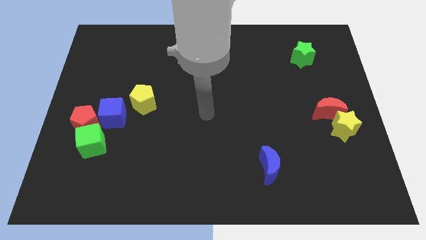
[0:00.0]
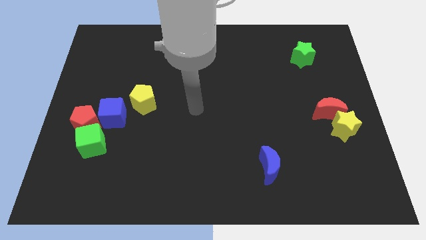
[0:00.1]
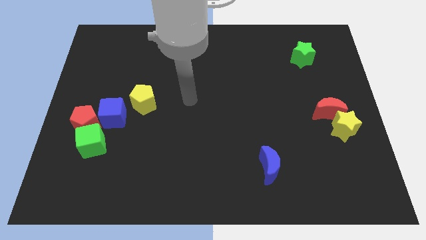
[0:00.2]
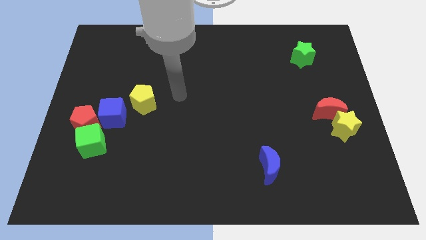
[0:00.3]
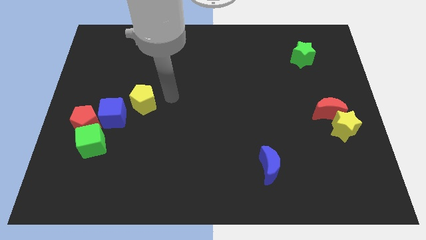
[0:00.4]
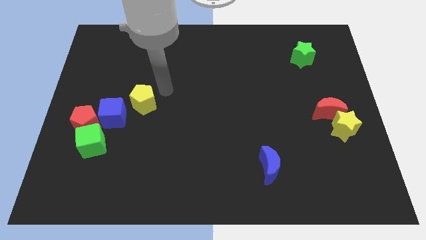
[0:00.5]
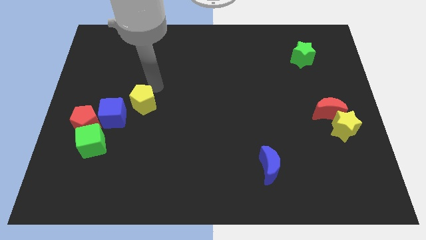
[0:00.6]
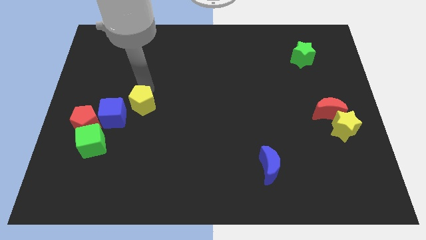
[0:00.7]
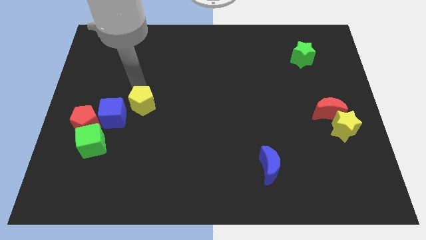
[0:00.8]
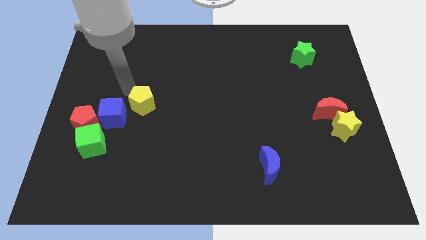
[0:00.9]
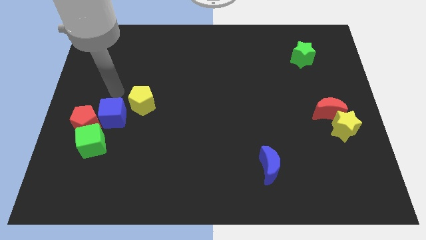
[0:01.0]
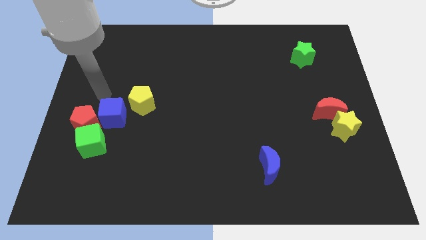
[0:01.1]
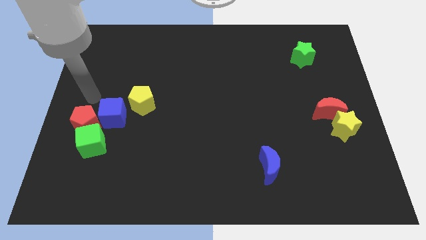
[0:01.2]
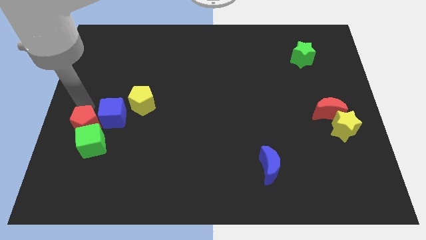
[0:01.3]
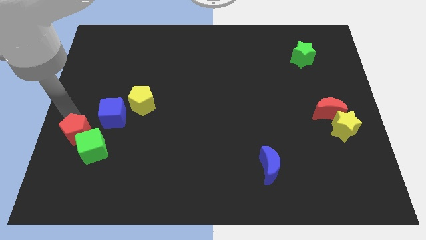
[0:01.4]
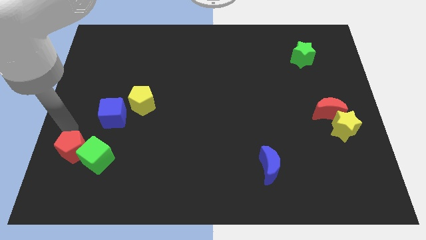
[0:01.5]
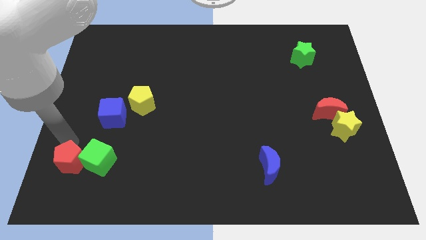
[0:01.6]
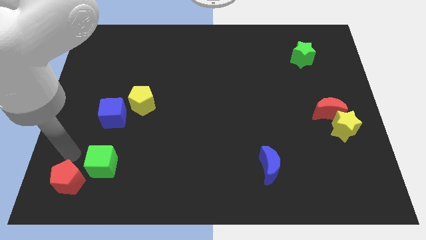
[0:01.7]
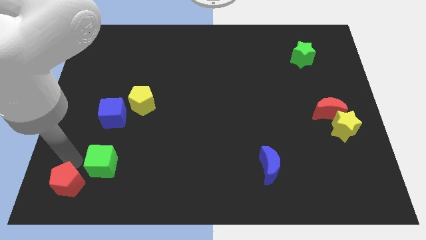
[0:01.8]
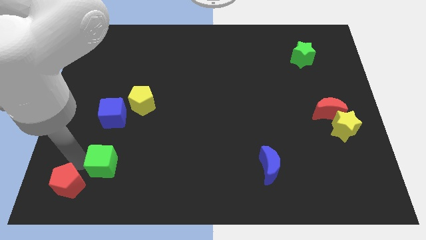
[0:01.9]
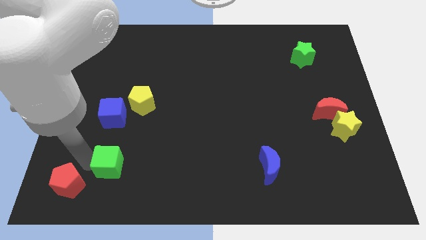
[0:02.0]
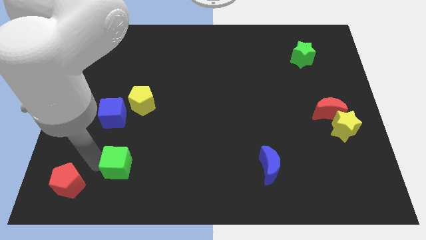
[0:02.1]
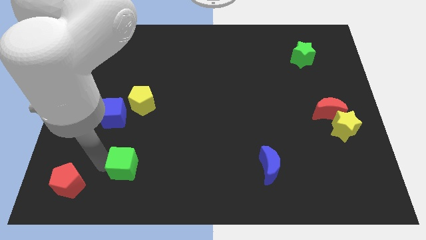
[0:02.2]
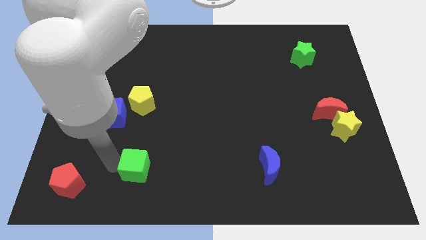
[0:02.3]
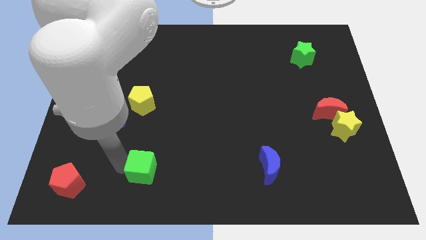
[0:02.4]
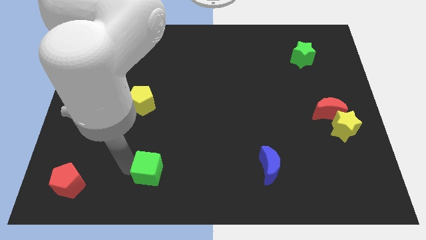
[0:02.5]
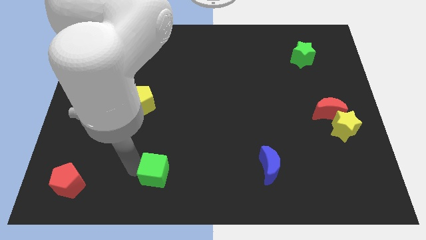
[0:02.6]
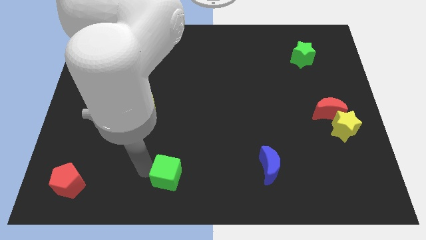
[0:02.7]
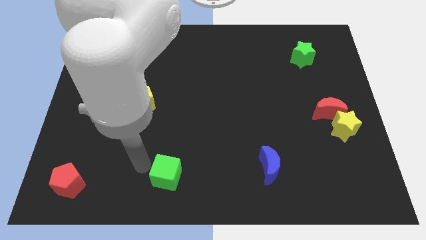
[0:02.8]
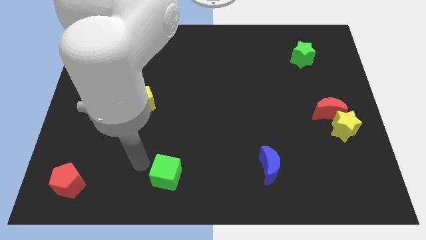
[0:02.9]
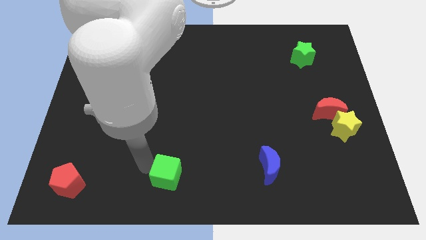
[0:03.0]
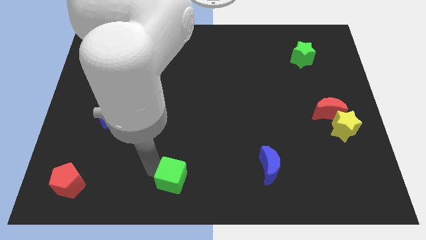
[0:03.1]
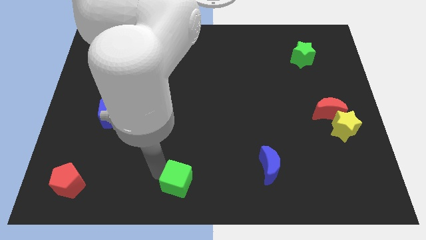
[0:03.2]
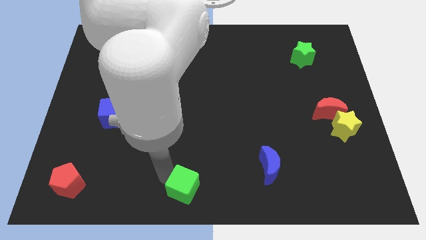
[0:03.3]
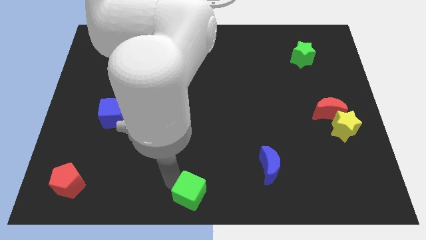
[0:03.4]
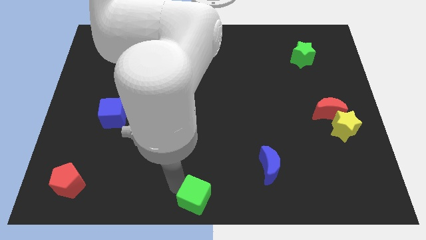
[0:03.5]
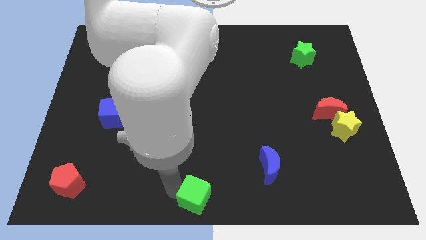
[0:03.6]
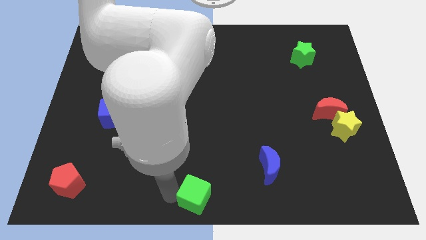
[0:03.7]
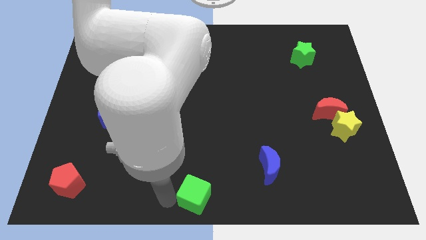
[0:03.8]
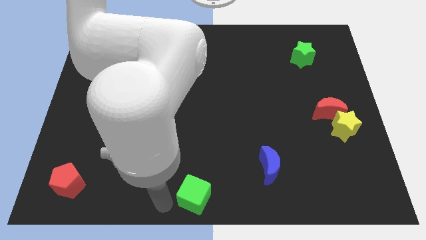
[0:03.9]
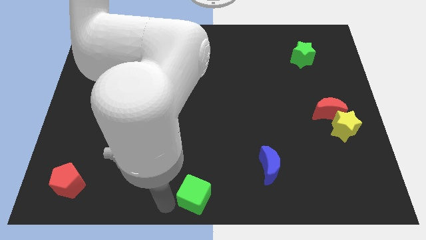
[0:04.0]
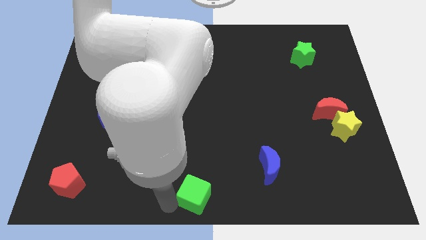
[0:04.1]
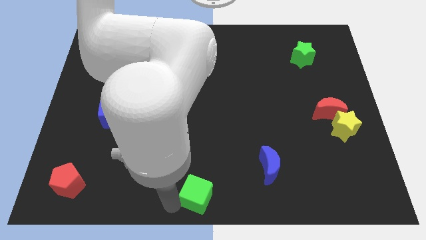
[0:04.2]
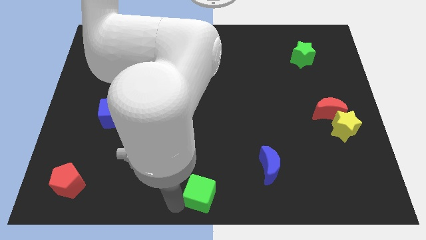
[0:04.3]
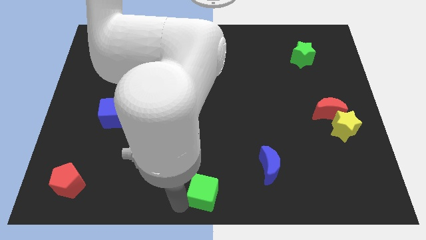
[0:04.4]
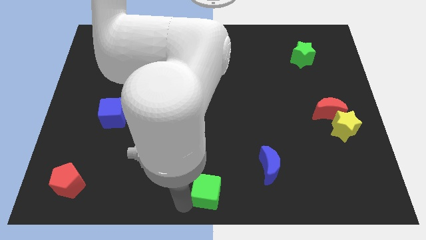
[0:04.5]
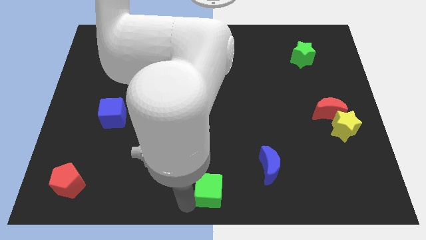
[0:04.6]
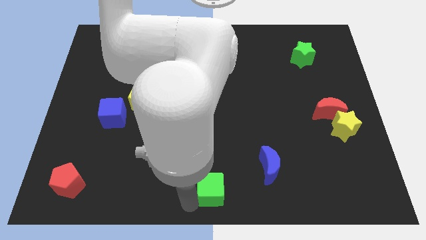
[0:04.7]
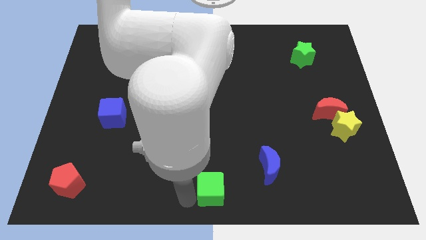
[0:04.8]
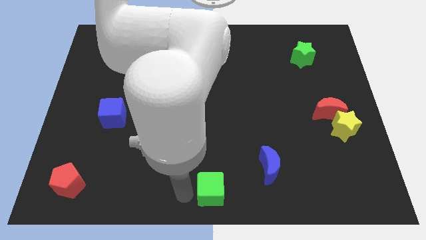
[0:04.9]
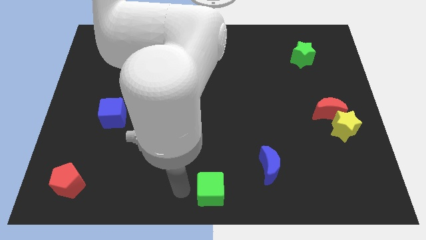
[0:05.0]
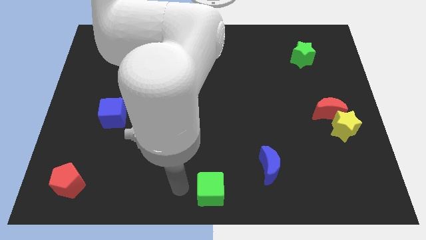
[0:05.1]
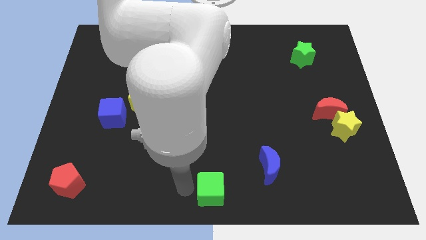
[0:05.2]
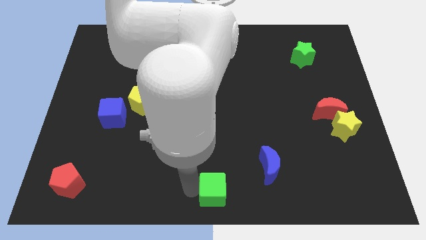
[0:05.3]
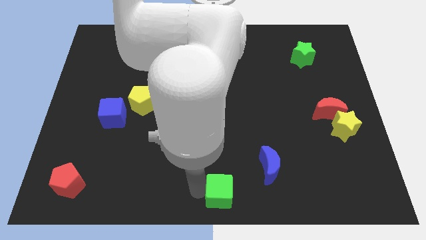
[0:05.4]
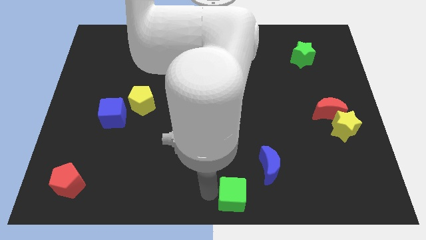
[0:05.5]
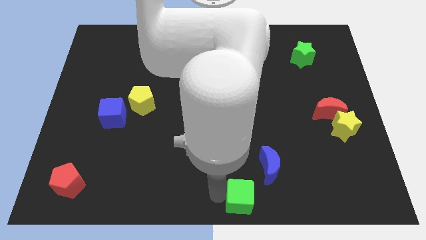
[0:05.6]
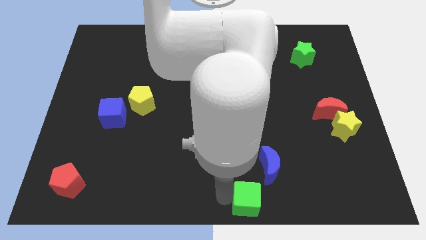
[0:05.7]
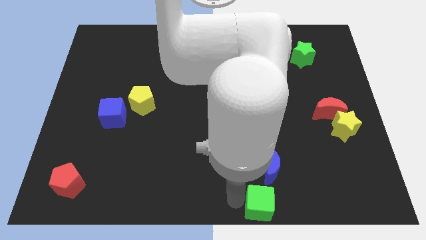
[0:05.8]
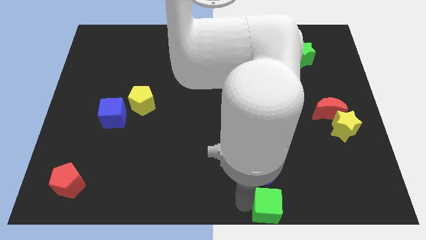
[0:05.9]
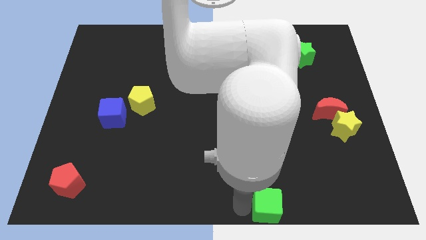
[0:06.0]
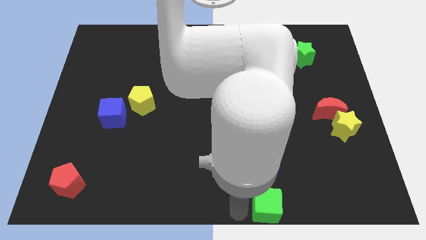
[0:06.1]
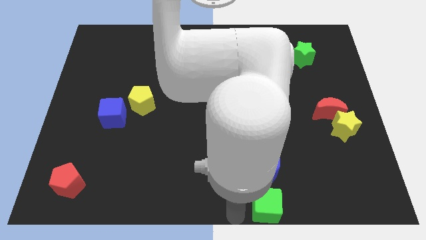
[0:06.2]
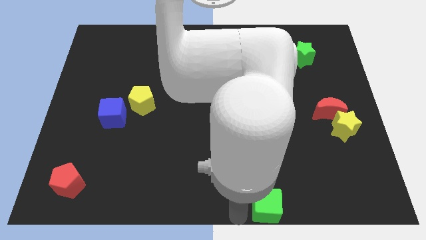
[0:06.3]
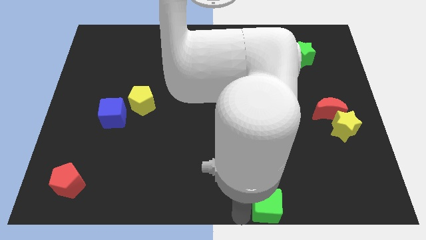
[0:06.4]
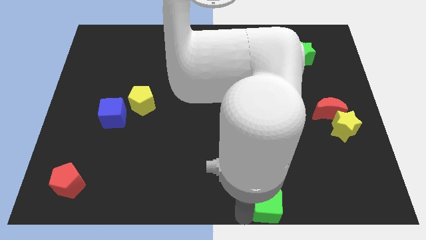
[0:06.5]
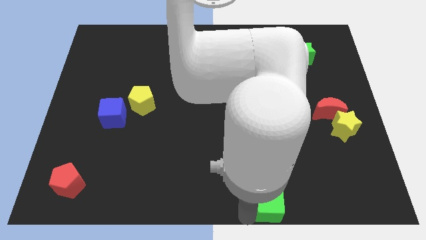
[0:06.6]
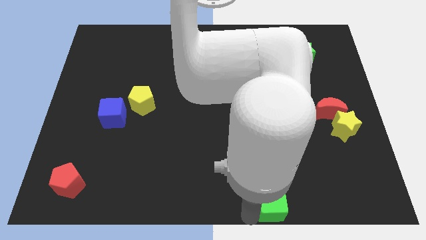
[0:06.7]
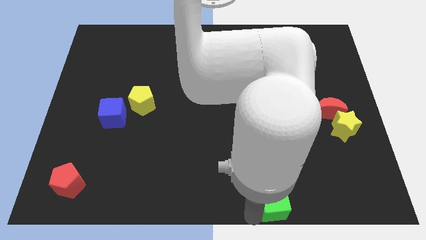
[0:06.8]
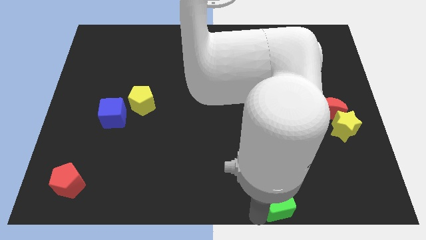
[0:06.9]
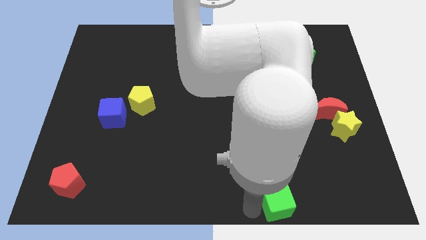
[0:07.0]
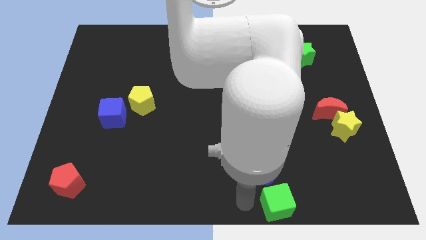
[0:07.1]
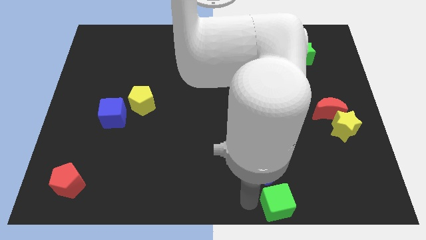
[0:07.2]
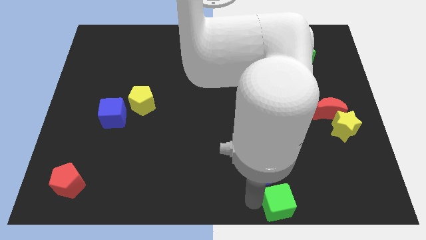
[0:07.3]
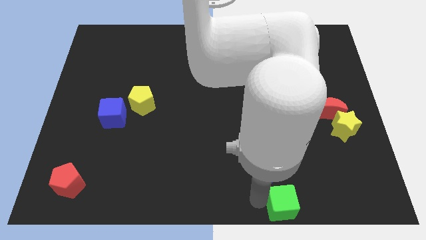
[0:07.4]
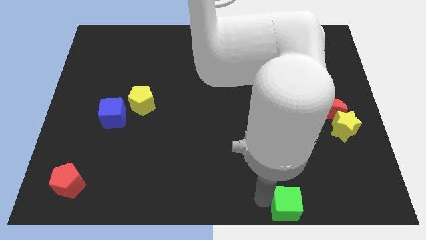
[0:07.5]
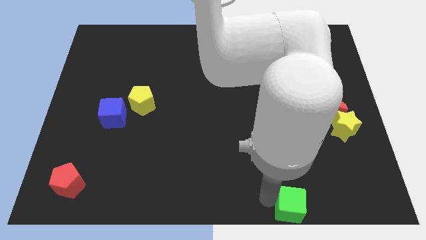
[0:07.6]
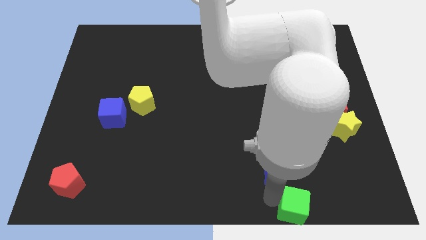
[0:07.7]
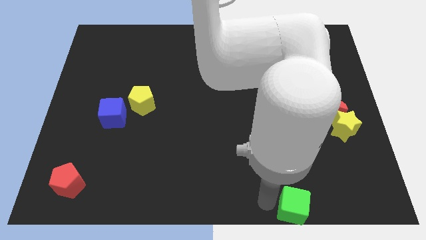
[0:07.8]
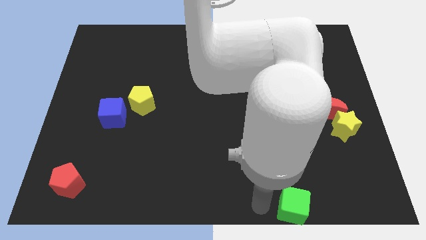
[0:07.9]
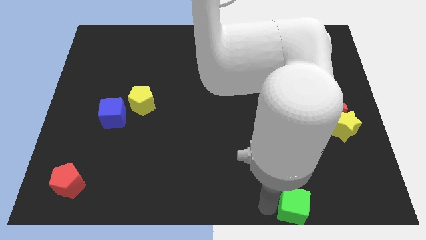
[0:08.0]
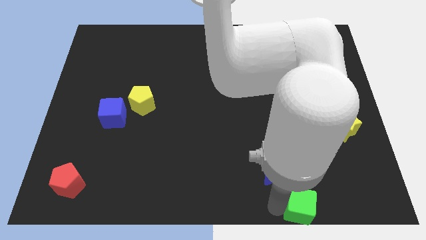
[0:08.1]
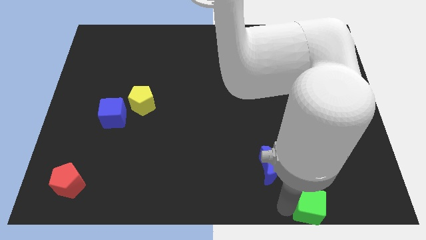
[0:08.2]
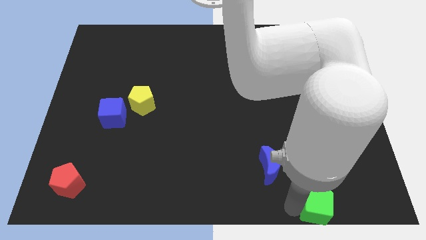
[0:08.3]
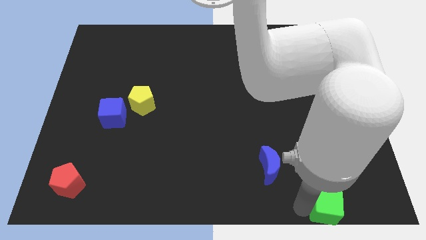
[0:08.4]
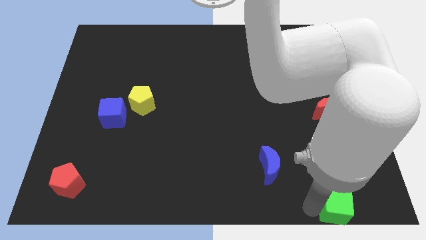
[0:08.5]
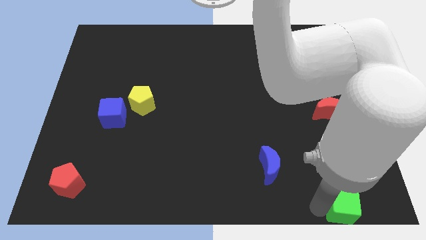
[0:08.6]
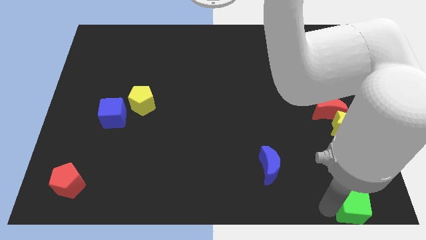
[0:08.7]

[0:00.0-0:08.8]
push the green cube to the bottom right
